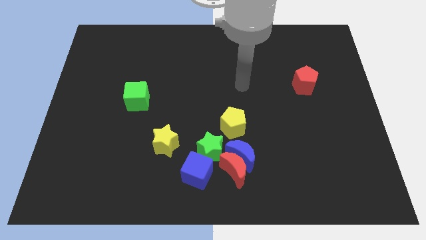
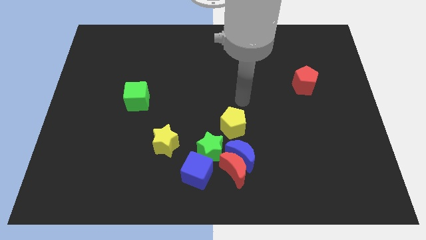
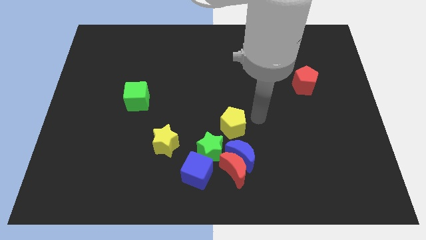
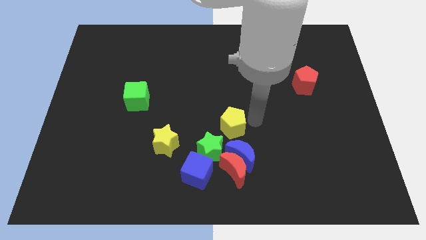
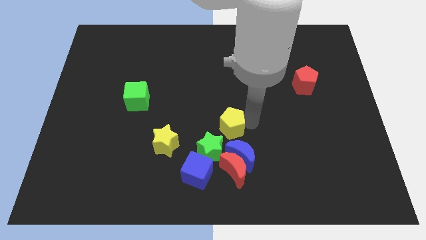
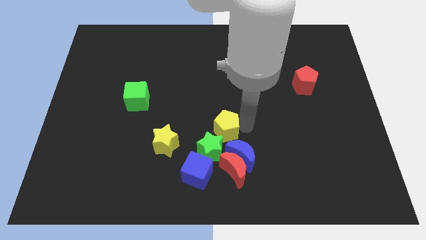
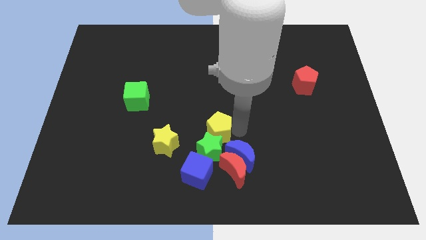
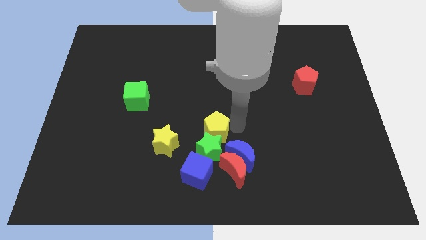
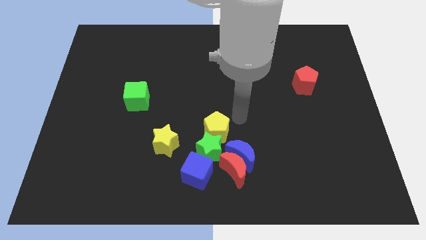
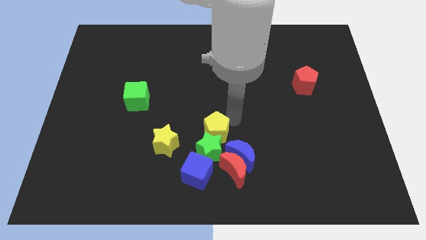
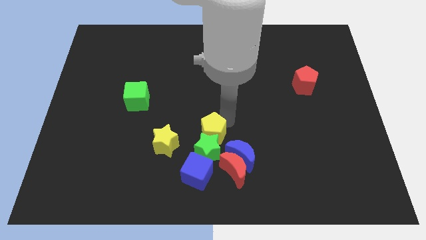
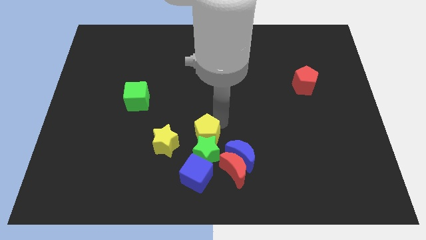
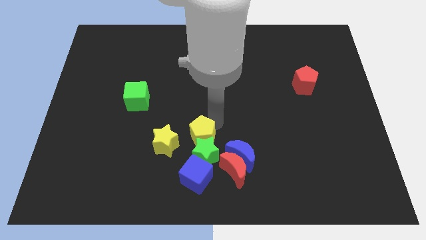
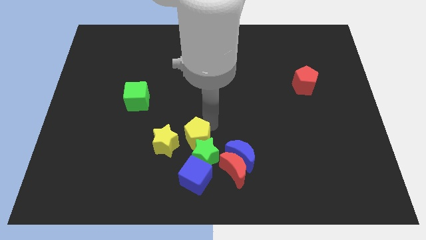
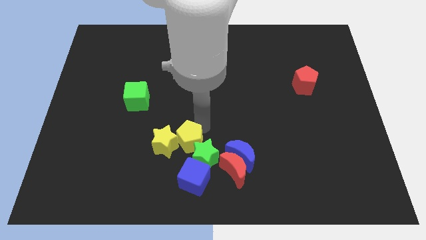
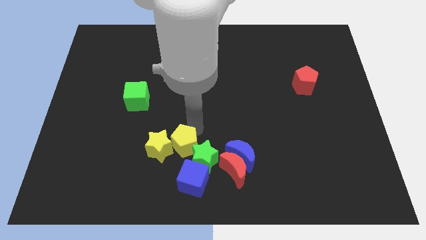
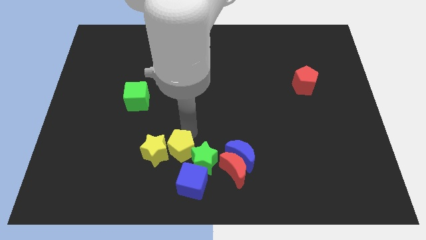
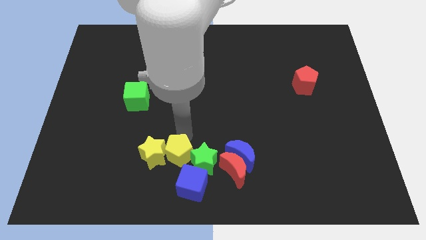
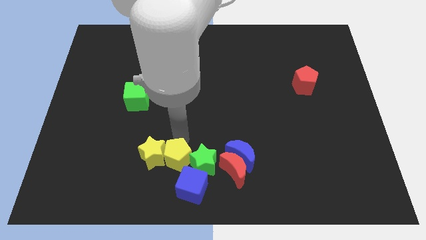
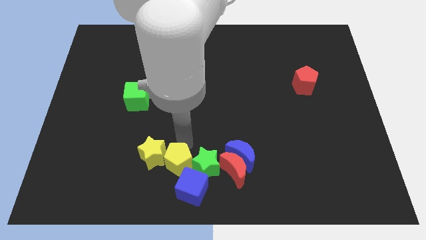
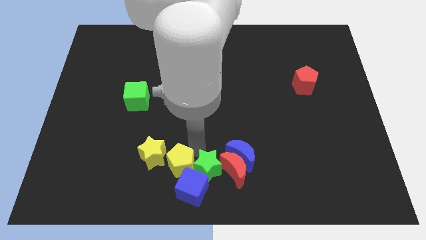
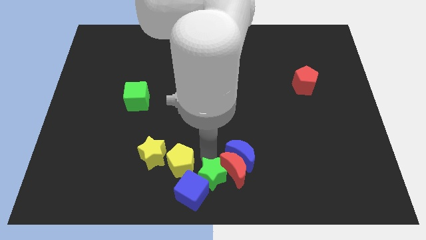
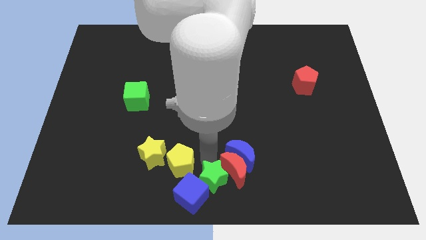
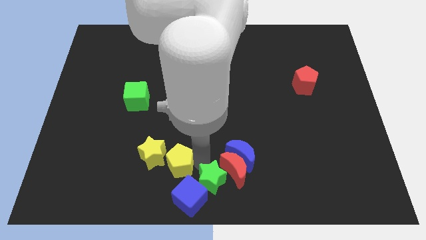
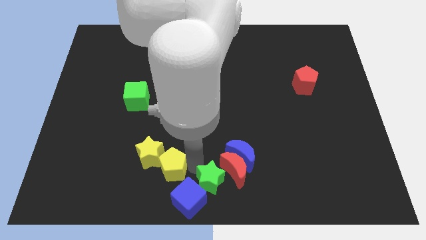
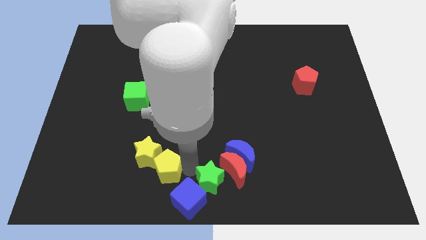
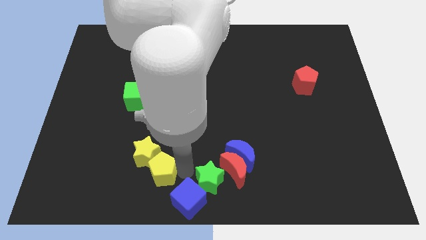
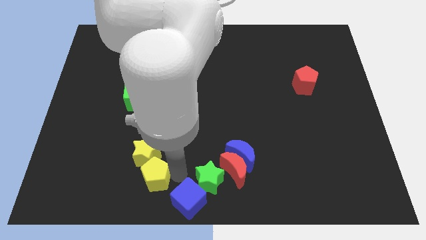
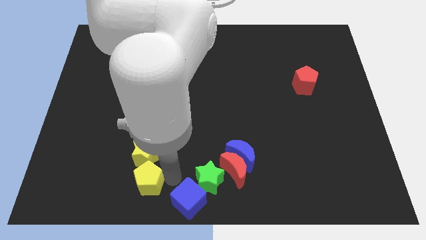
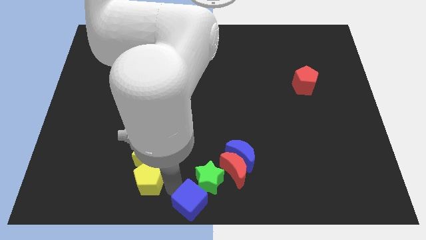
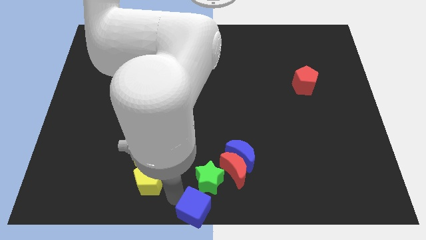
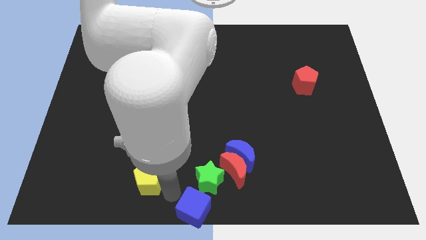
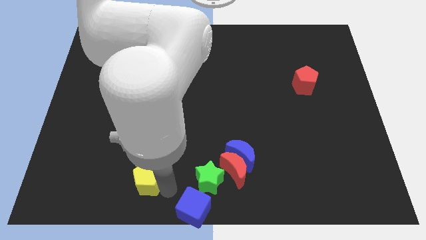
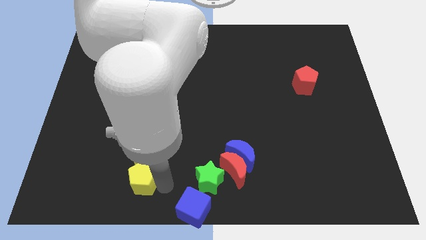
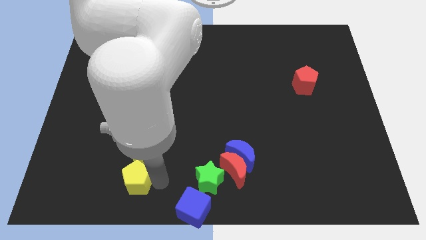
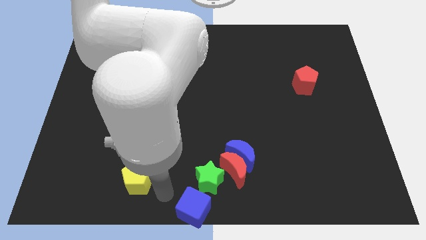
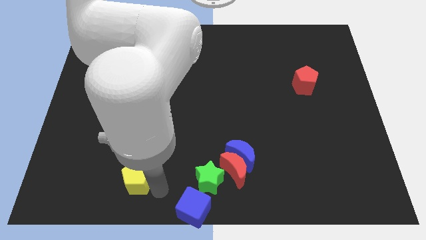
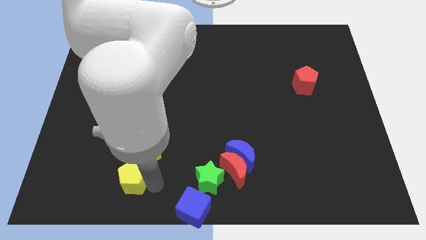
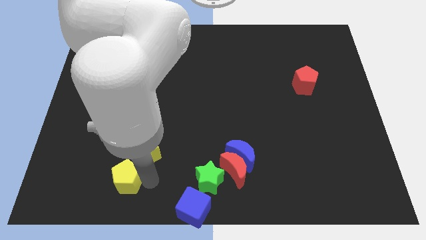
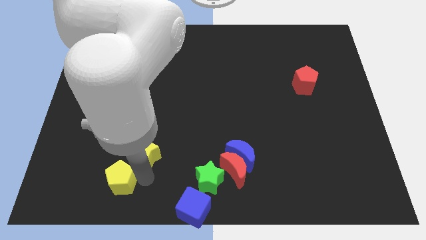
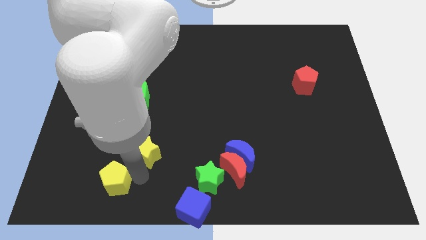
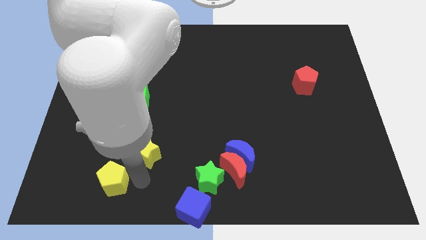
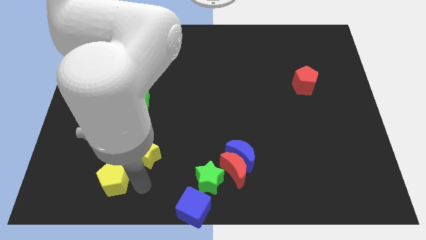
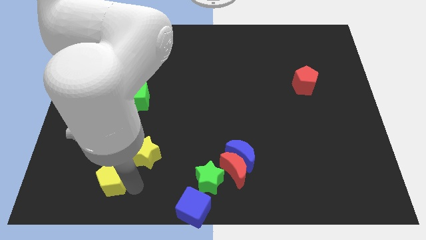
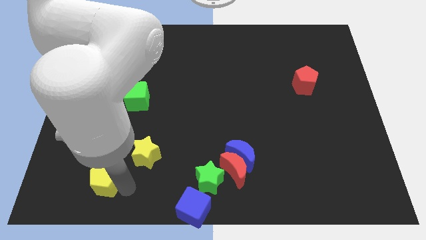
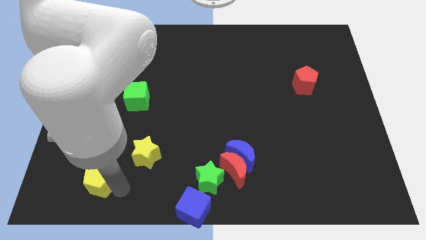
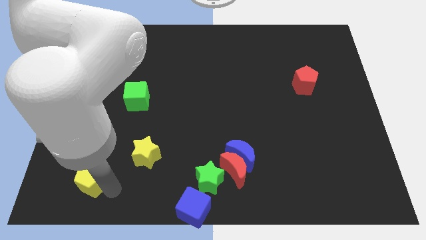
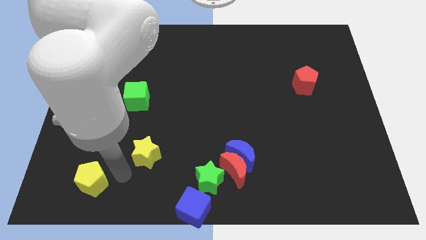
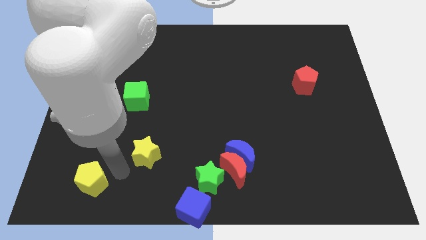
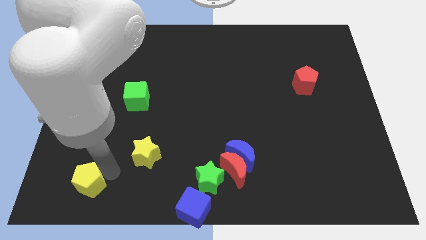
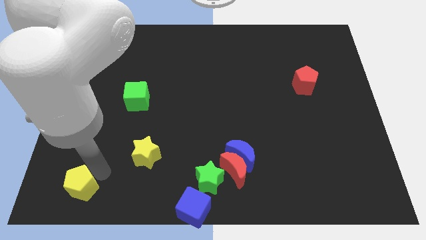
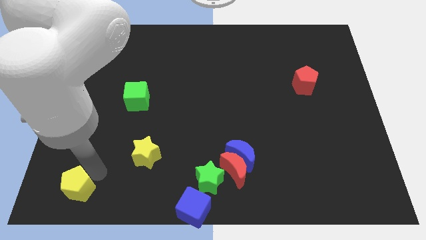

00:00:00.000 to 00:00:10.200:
slide the yellow pentagon to the bottom left corner

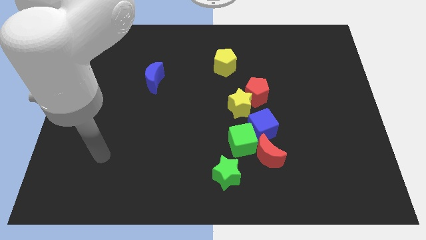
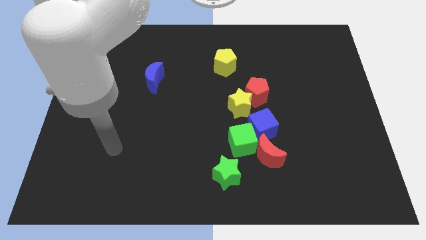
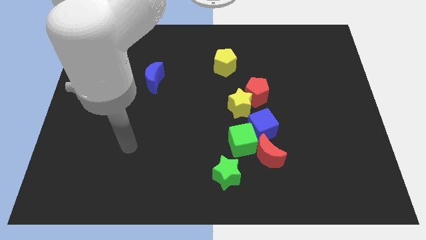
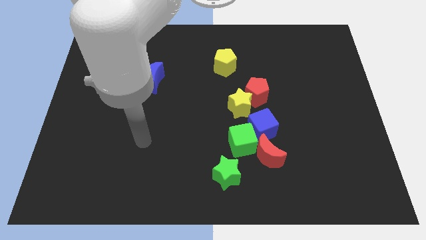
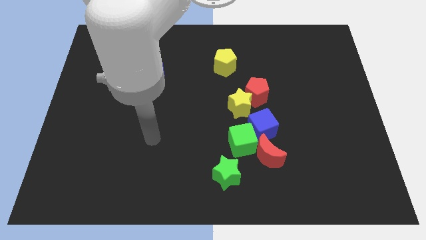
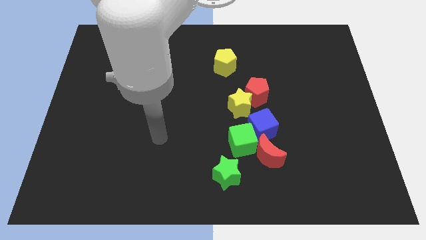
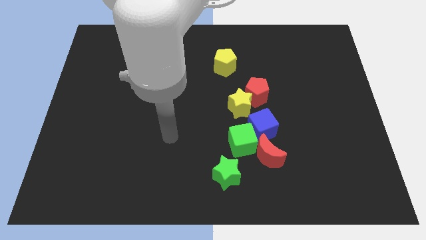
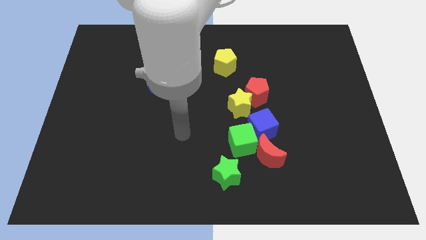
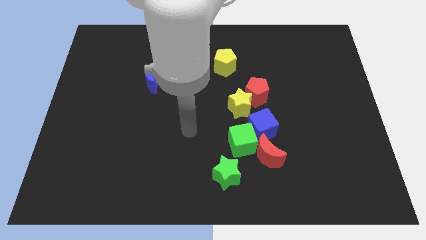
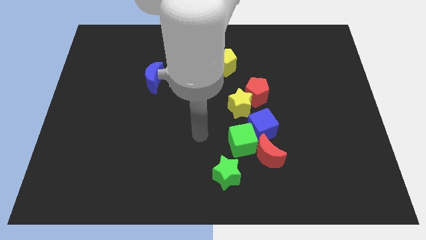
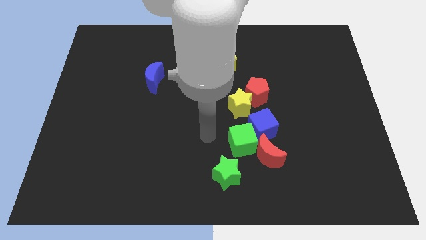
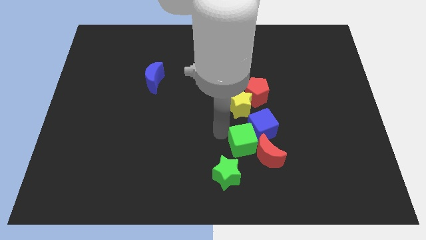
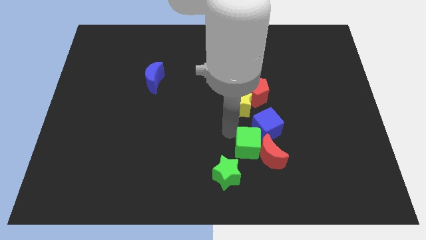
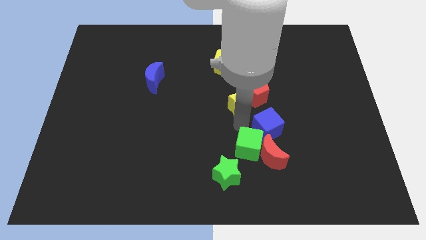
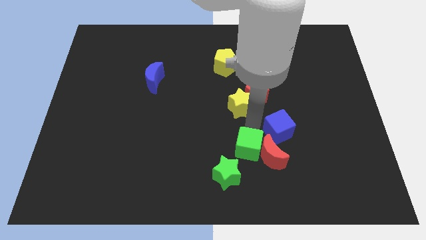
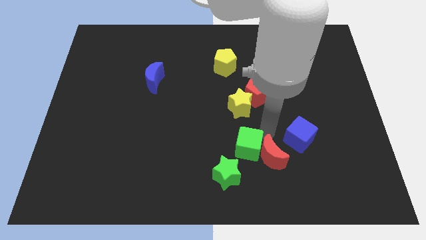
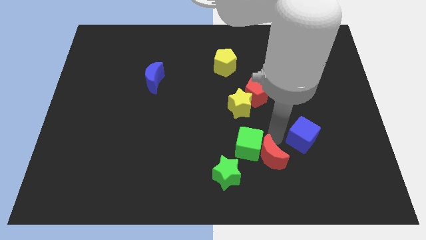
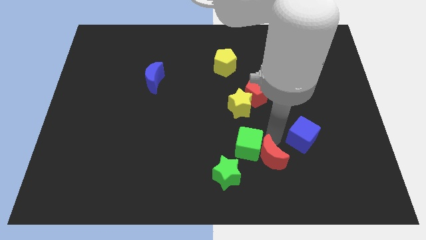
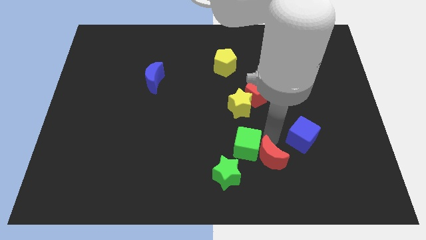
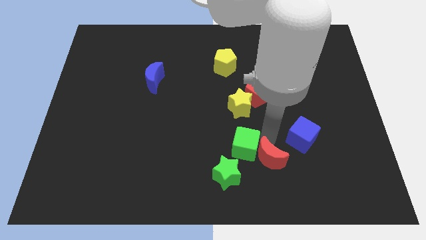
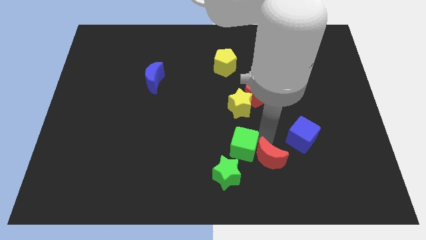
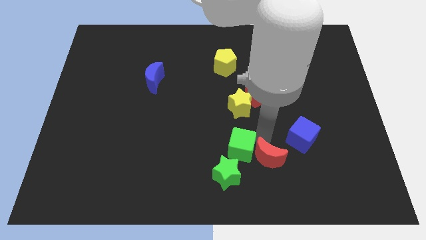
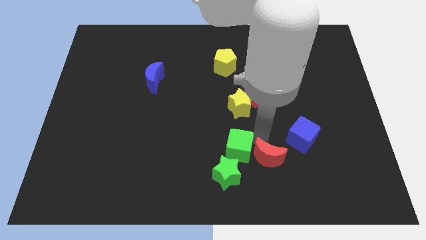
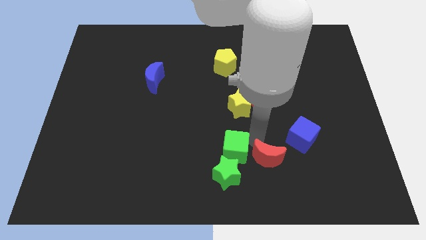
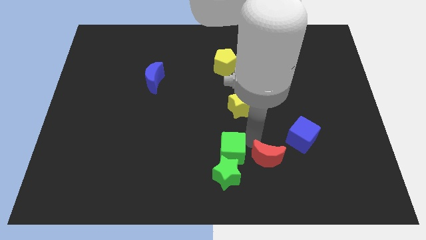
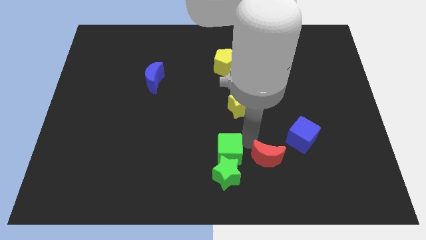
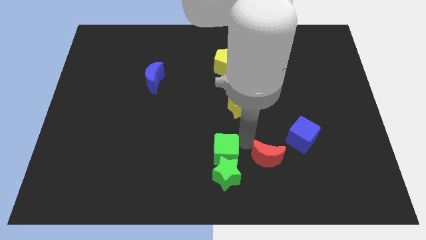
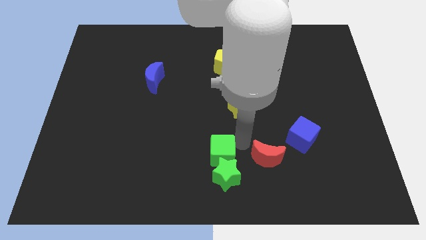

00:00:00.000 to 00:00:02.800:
slide the green cube to the bottom
